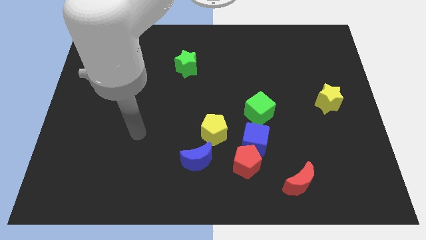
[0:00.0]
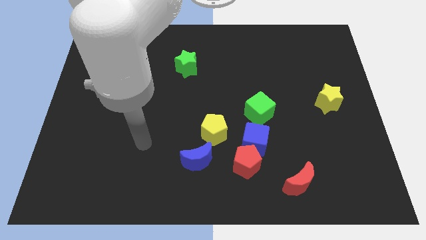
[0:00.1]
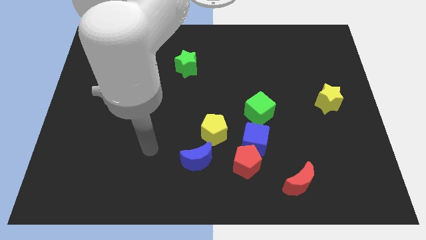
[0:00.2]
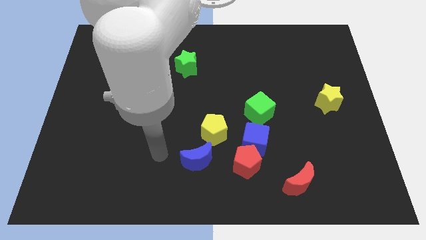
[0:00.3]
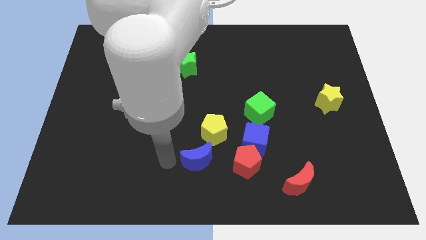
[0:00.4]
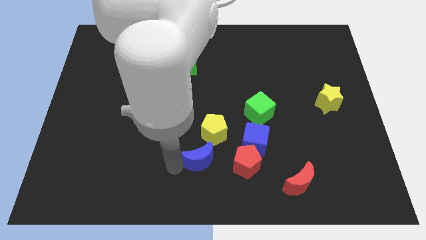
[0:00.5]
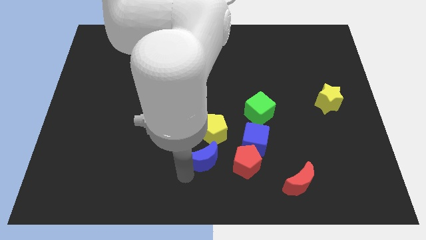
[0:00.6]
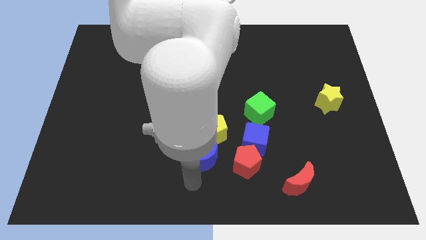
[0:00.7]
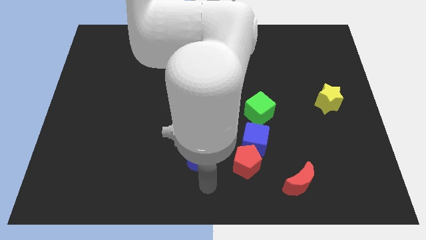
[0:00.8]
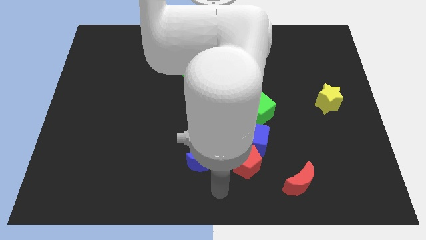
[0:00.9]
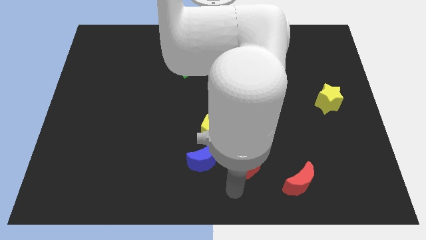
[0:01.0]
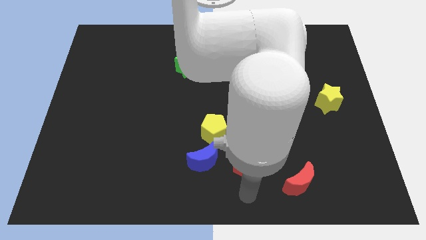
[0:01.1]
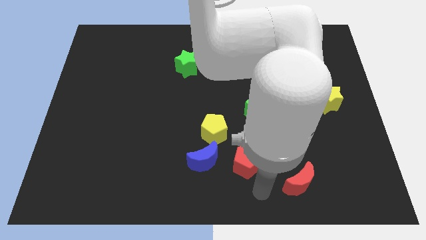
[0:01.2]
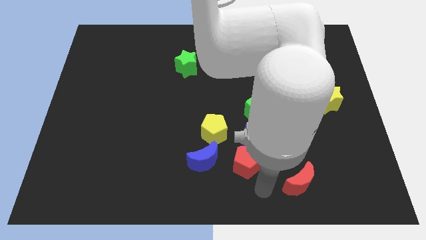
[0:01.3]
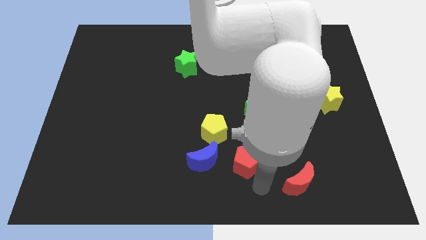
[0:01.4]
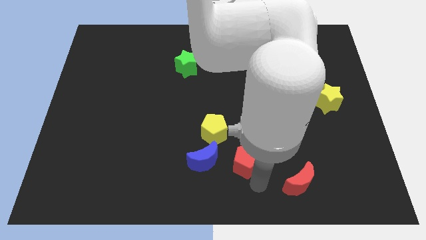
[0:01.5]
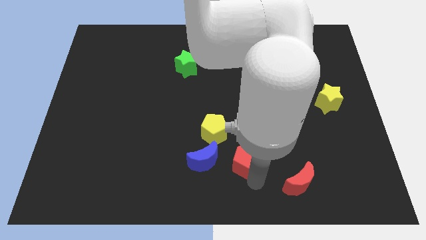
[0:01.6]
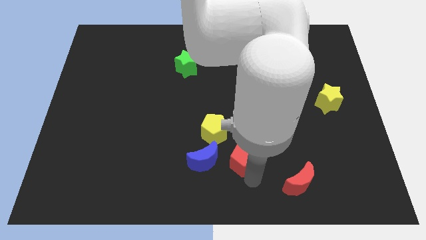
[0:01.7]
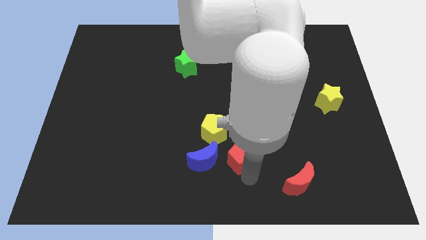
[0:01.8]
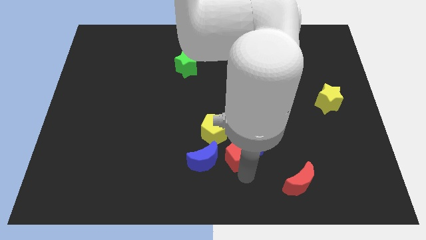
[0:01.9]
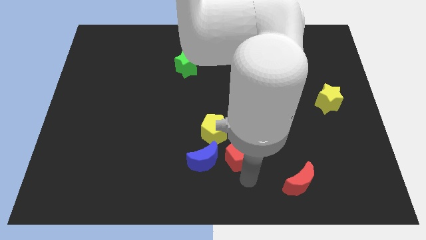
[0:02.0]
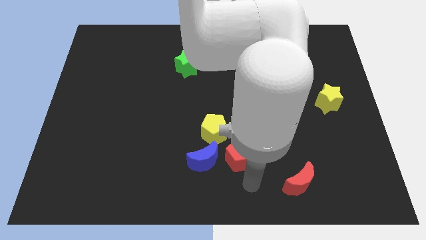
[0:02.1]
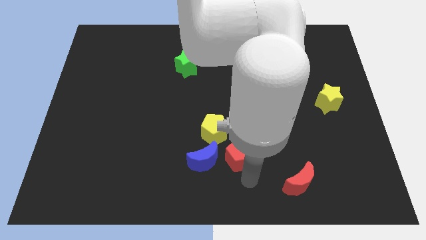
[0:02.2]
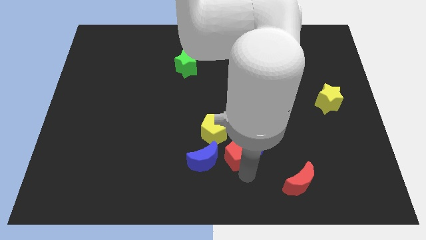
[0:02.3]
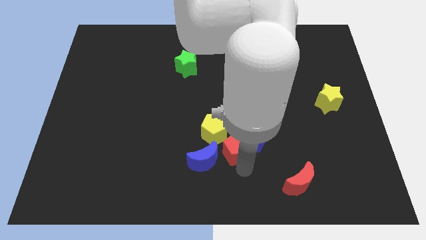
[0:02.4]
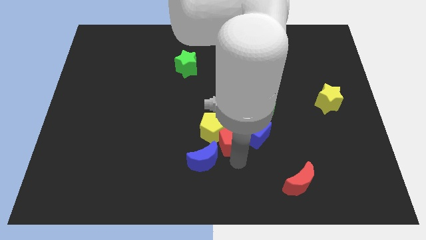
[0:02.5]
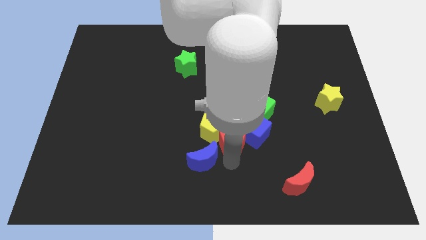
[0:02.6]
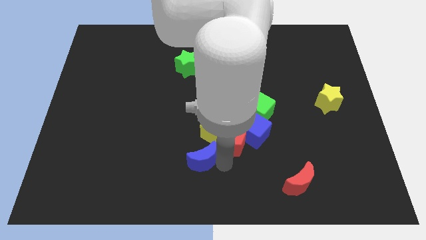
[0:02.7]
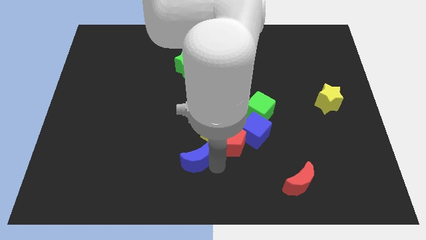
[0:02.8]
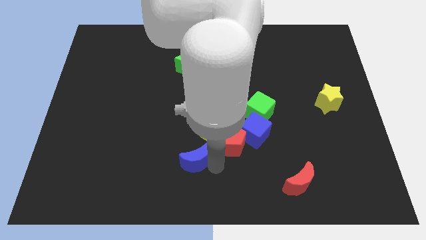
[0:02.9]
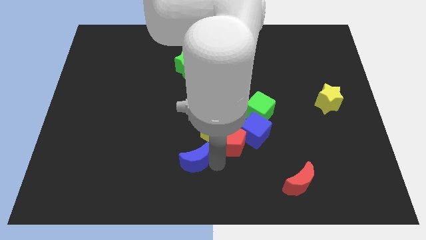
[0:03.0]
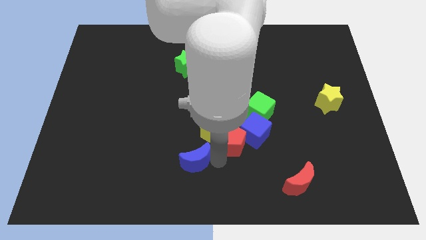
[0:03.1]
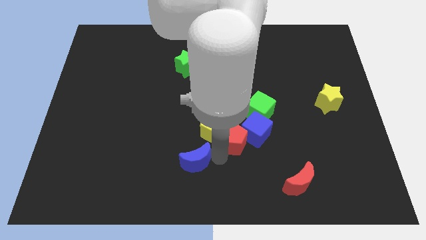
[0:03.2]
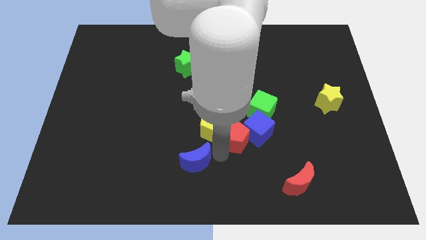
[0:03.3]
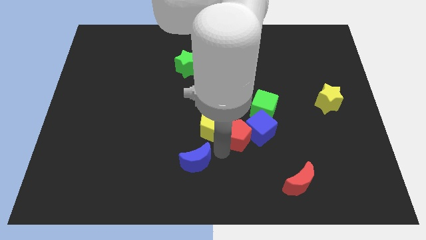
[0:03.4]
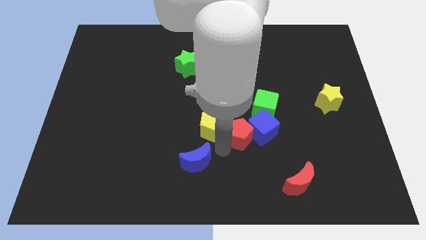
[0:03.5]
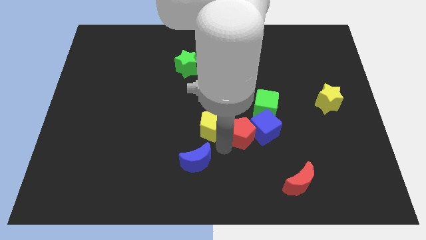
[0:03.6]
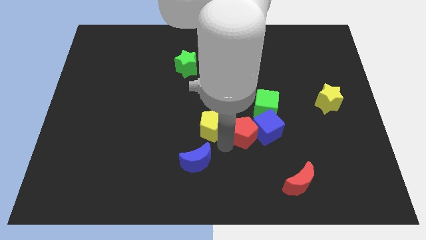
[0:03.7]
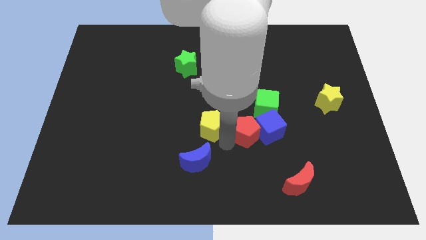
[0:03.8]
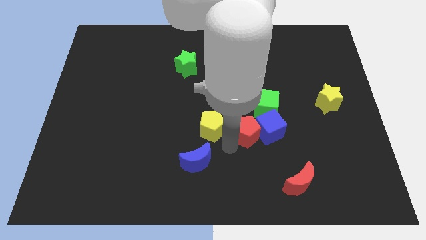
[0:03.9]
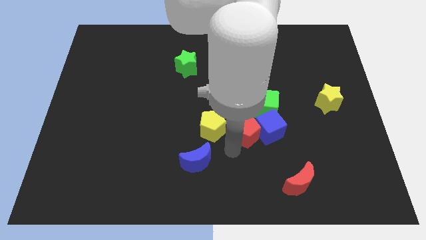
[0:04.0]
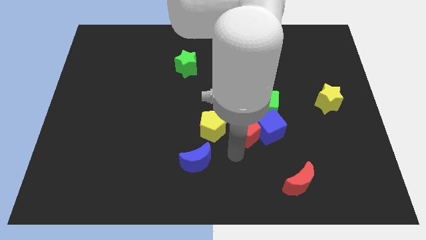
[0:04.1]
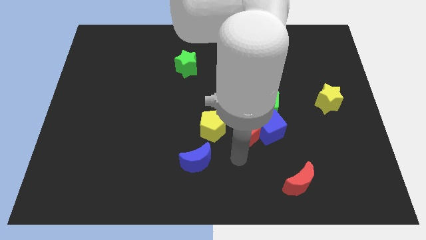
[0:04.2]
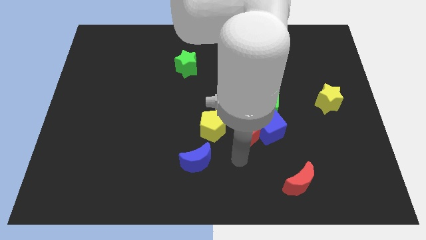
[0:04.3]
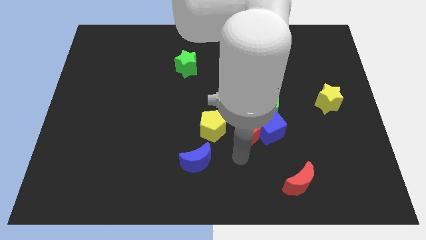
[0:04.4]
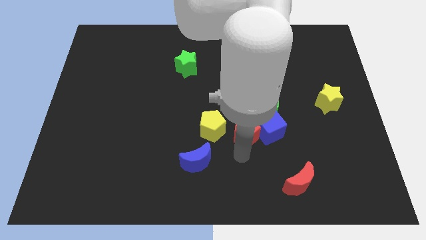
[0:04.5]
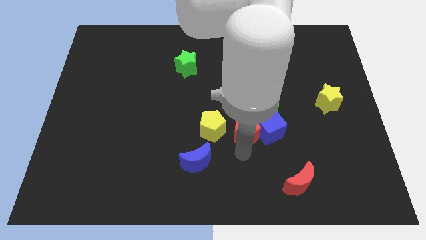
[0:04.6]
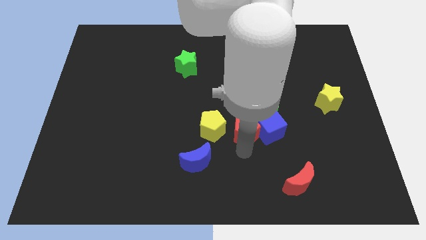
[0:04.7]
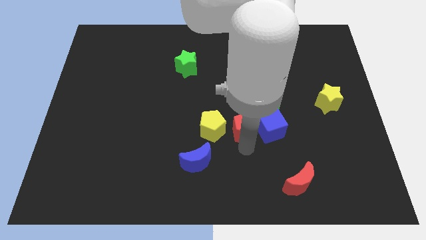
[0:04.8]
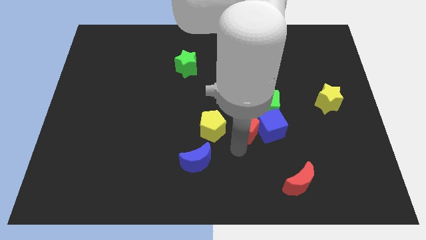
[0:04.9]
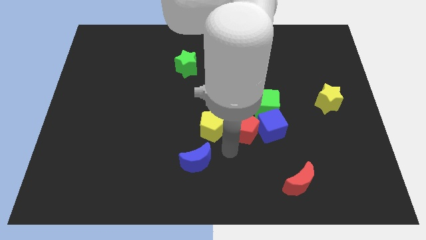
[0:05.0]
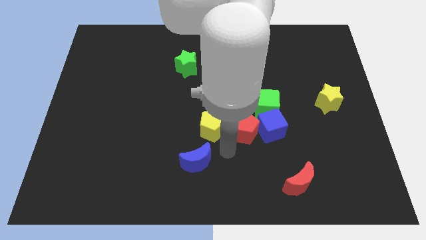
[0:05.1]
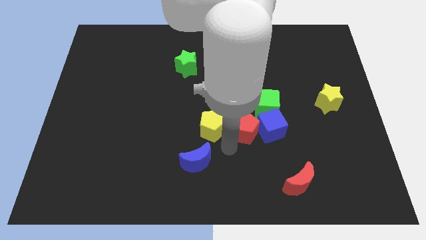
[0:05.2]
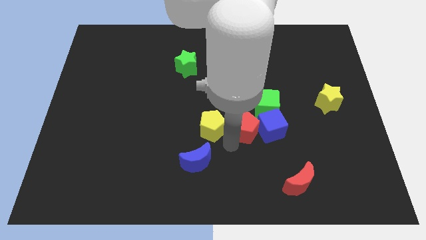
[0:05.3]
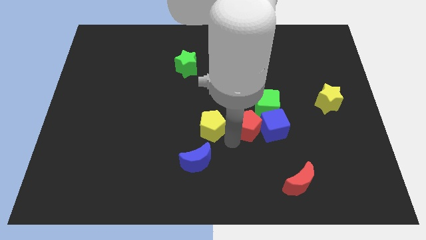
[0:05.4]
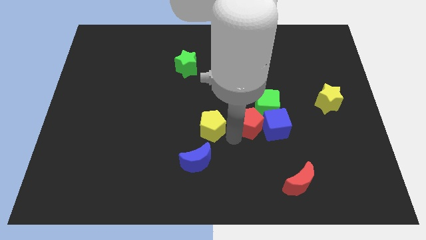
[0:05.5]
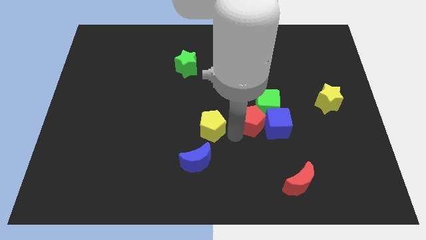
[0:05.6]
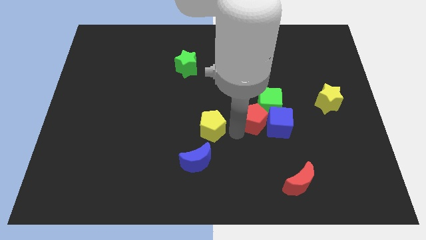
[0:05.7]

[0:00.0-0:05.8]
put the red pentagon to the green cube

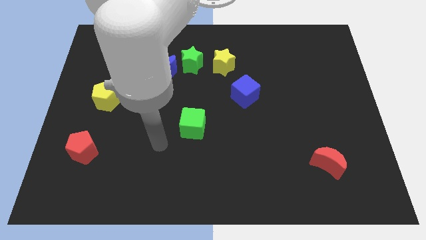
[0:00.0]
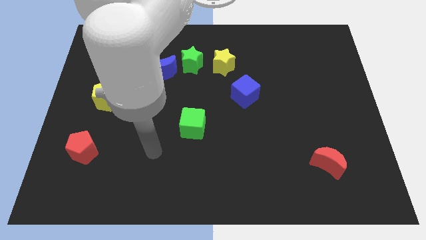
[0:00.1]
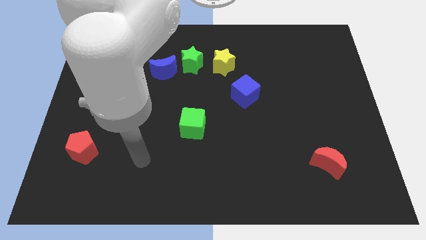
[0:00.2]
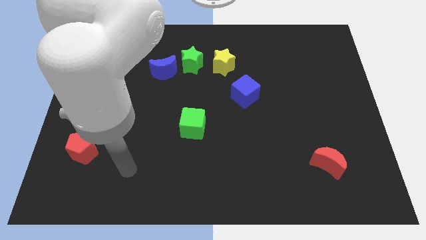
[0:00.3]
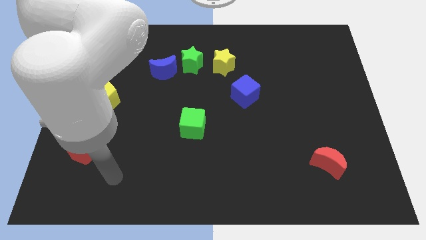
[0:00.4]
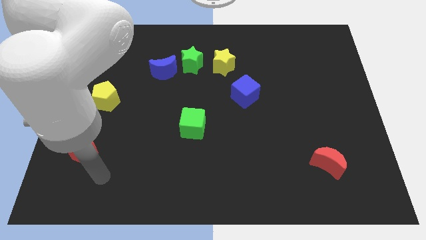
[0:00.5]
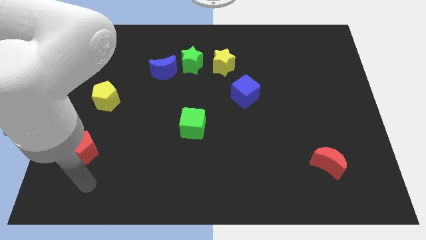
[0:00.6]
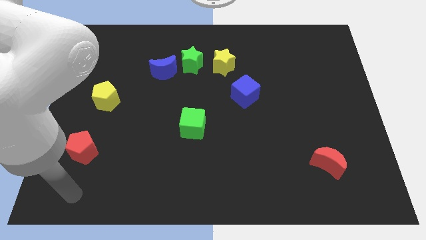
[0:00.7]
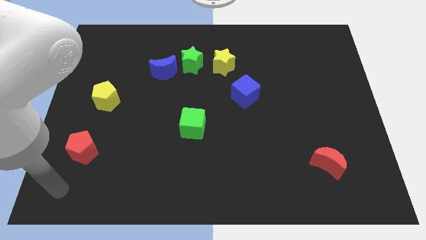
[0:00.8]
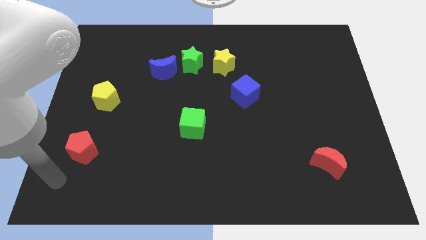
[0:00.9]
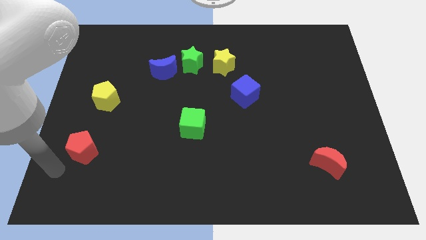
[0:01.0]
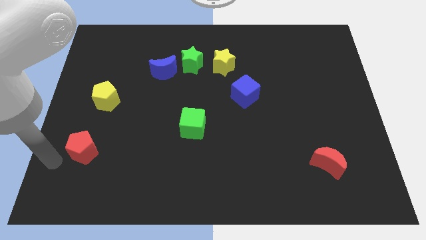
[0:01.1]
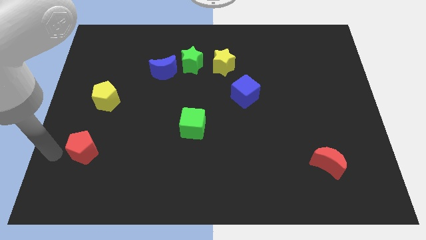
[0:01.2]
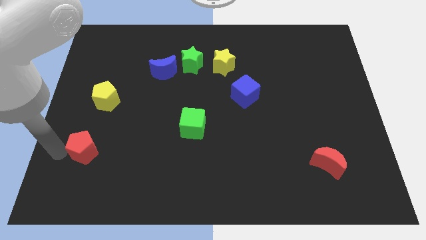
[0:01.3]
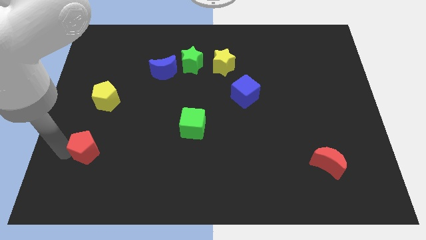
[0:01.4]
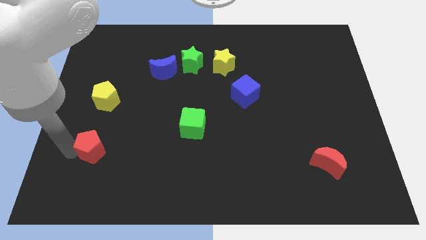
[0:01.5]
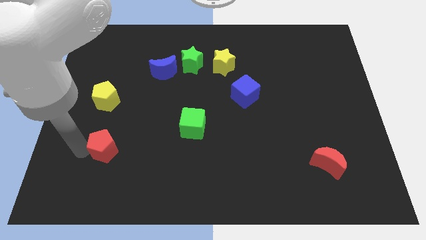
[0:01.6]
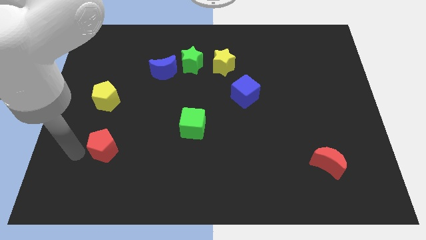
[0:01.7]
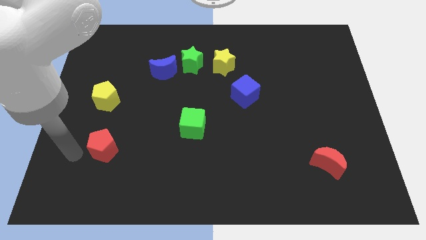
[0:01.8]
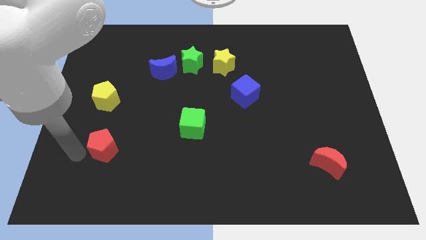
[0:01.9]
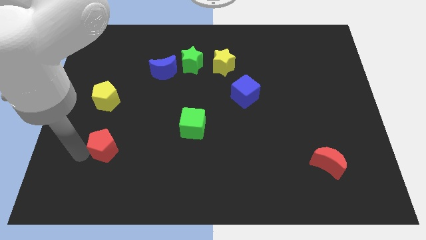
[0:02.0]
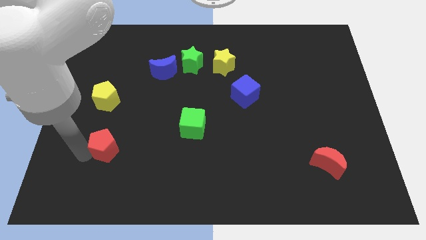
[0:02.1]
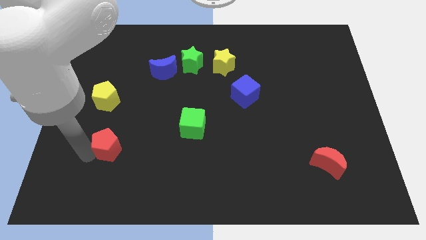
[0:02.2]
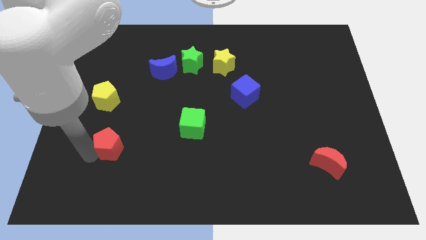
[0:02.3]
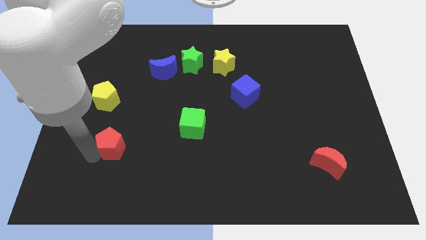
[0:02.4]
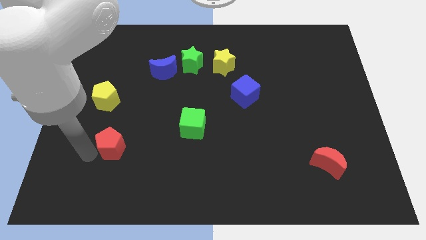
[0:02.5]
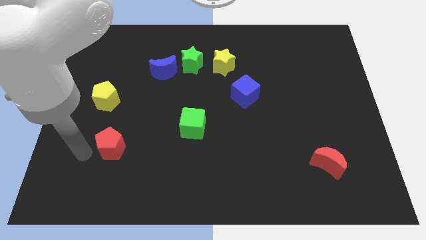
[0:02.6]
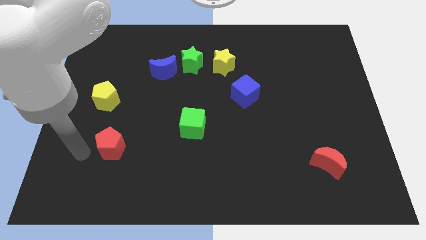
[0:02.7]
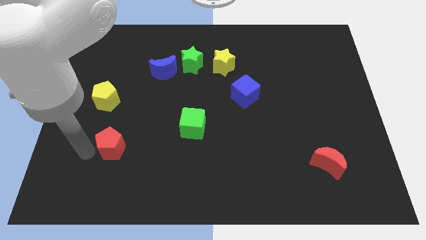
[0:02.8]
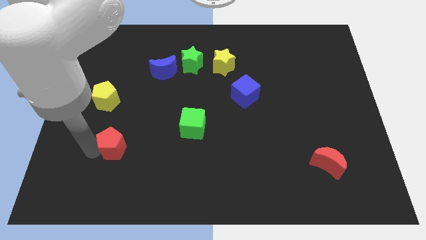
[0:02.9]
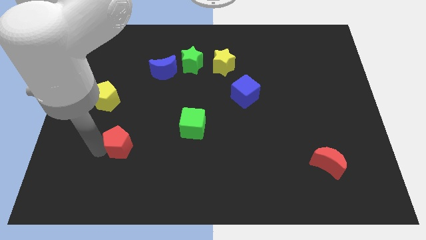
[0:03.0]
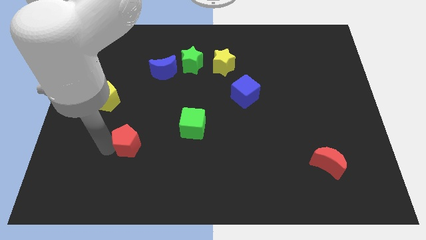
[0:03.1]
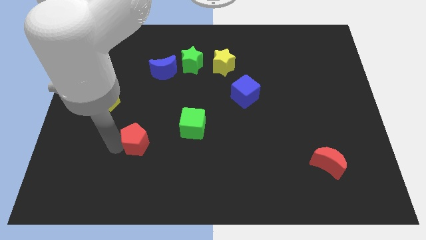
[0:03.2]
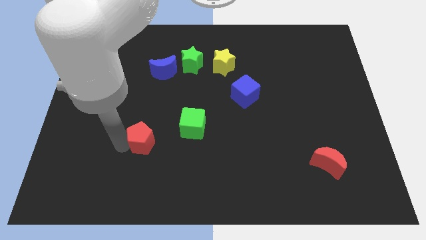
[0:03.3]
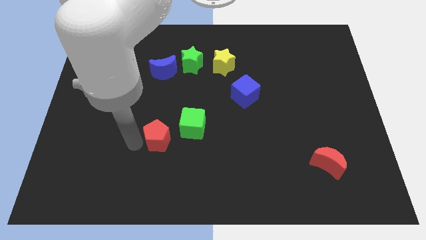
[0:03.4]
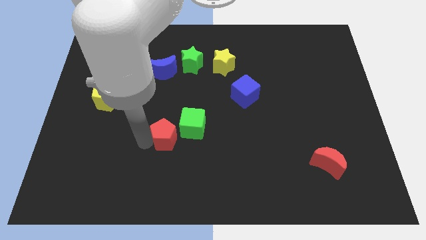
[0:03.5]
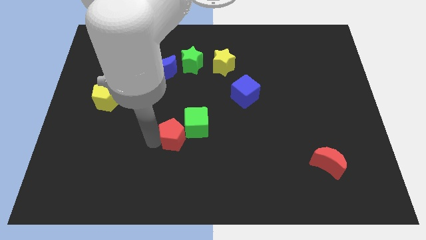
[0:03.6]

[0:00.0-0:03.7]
slide the red pentagon close to the green cube
